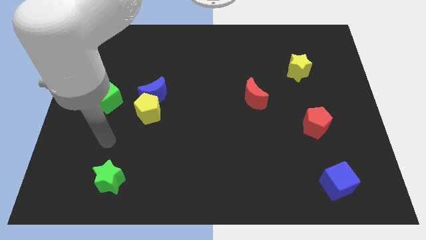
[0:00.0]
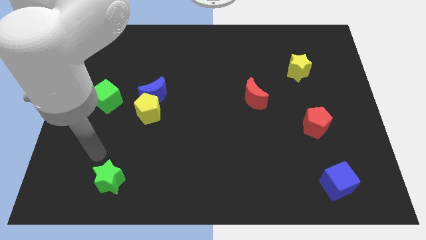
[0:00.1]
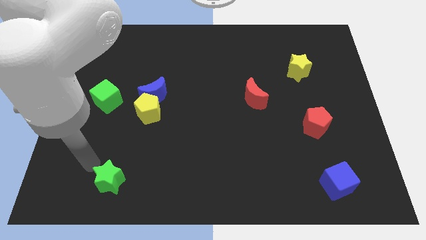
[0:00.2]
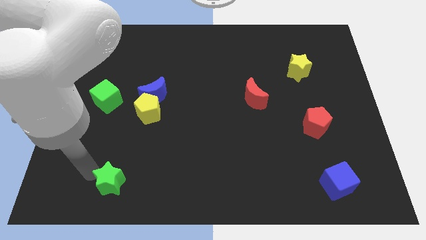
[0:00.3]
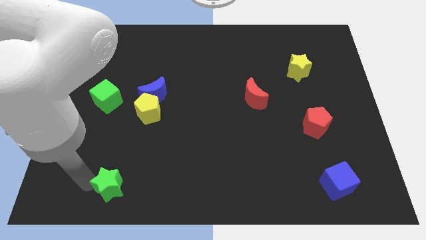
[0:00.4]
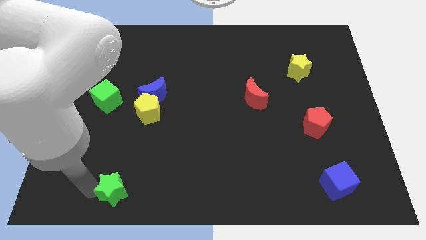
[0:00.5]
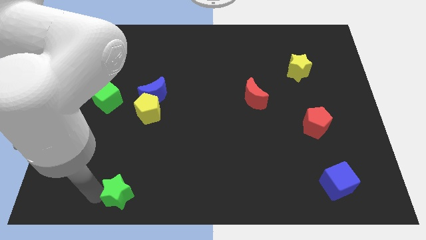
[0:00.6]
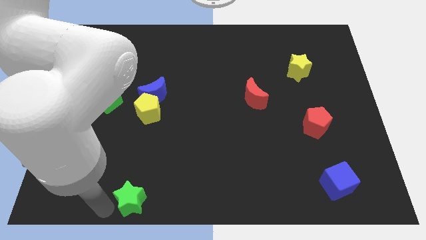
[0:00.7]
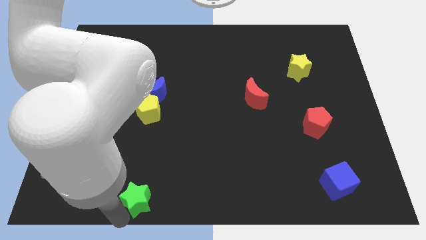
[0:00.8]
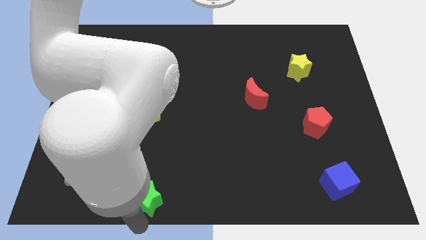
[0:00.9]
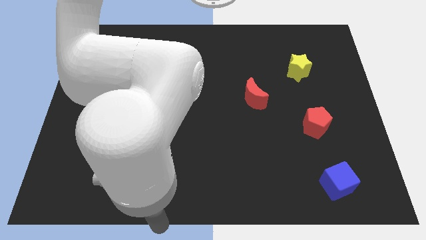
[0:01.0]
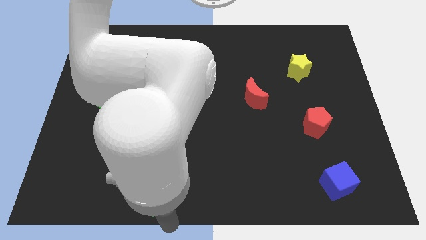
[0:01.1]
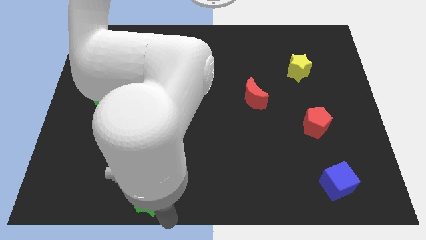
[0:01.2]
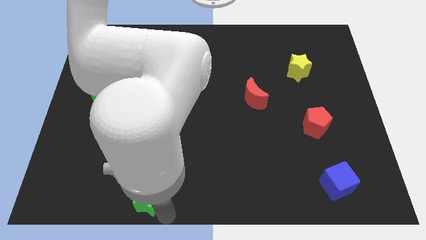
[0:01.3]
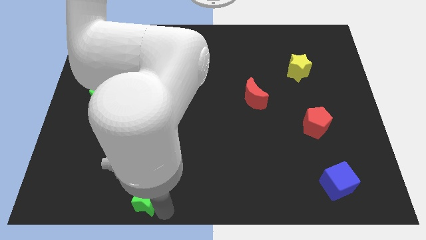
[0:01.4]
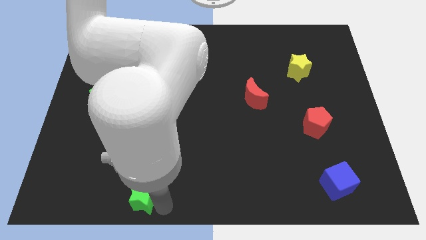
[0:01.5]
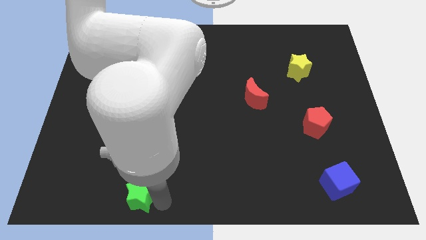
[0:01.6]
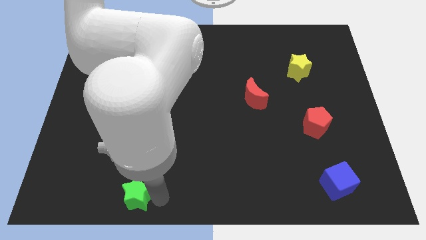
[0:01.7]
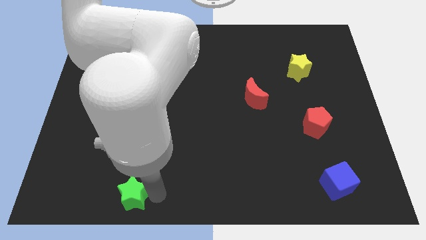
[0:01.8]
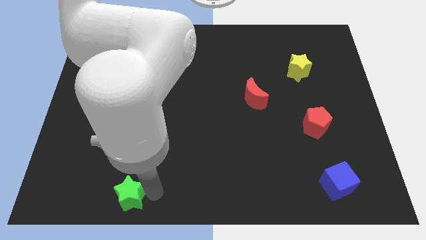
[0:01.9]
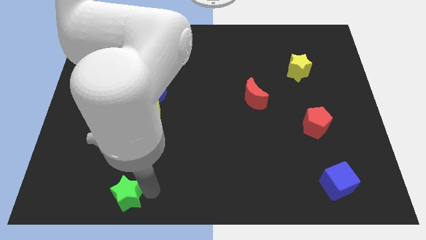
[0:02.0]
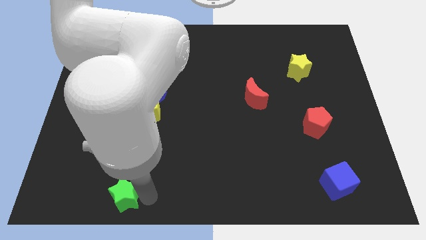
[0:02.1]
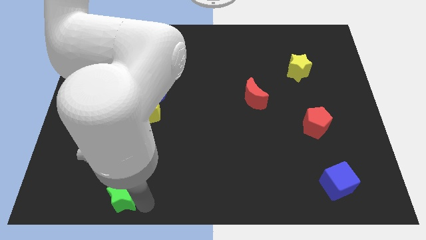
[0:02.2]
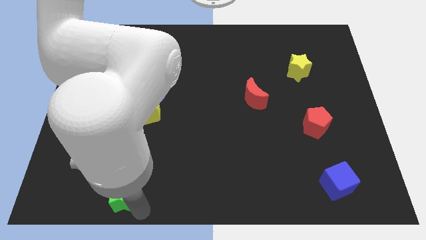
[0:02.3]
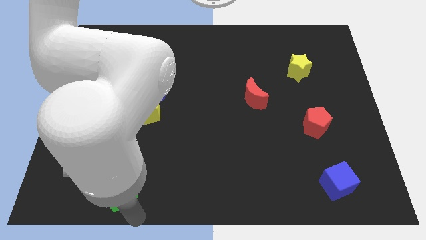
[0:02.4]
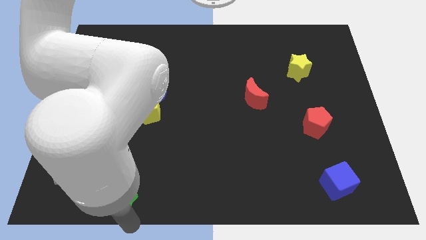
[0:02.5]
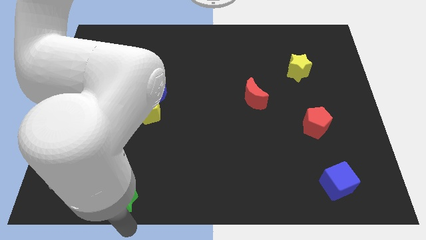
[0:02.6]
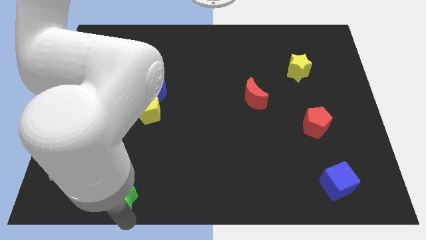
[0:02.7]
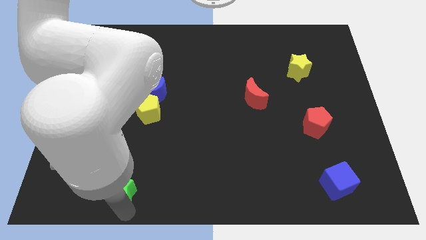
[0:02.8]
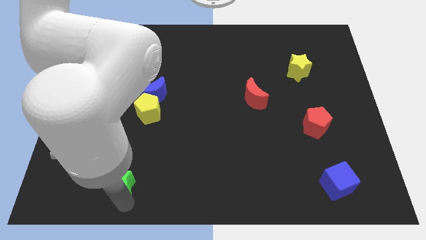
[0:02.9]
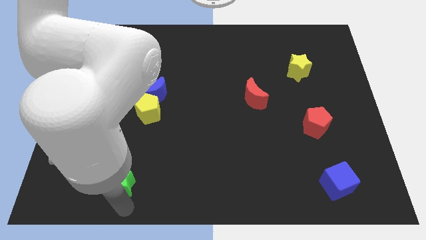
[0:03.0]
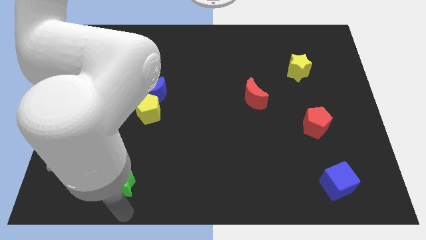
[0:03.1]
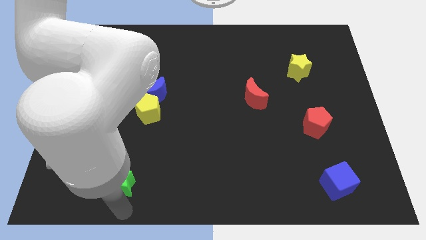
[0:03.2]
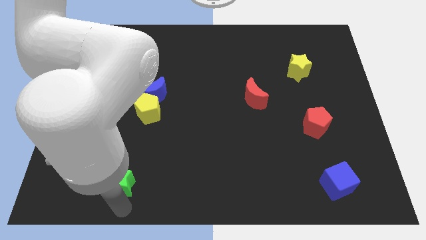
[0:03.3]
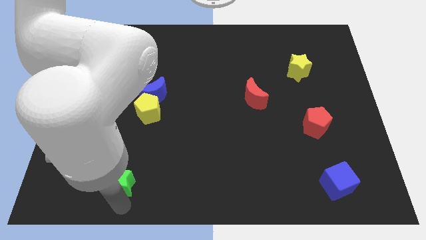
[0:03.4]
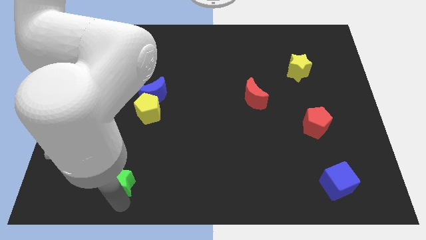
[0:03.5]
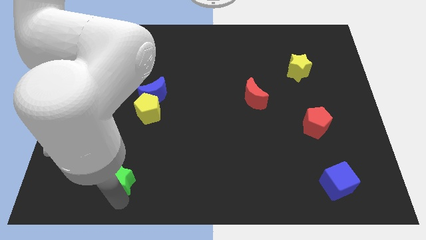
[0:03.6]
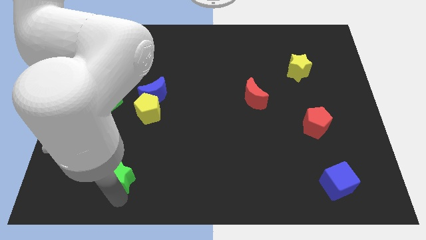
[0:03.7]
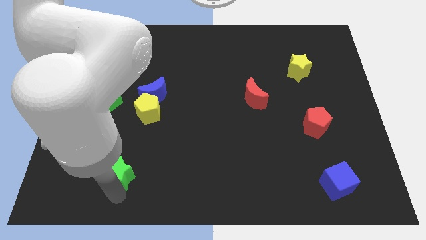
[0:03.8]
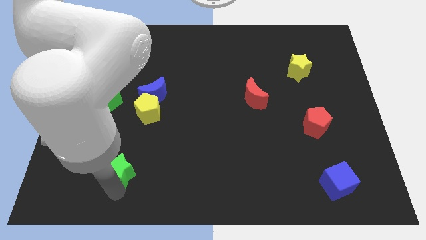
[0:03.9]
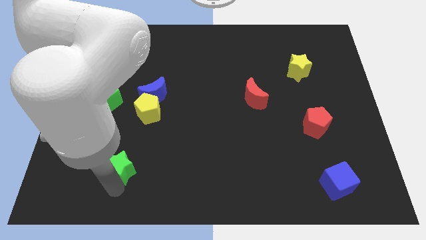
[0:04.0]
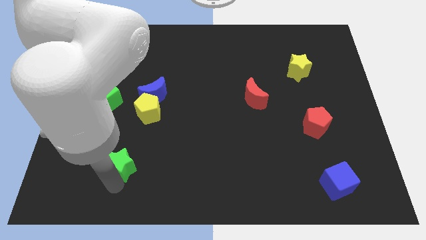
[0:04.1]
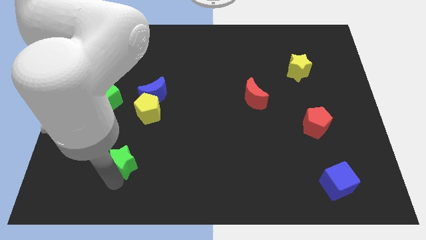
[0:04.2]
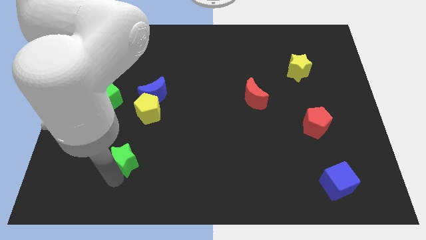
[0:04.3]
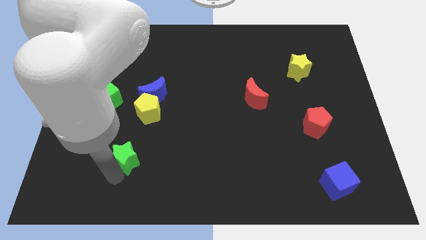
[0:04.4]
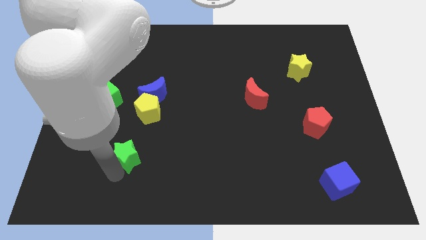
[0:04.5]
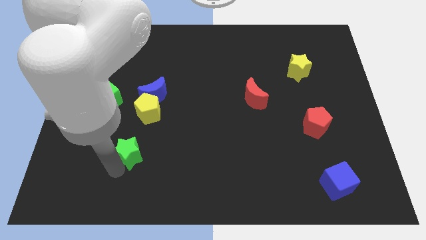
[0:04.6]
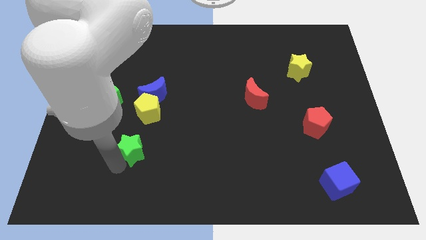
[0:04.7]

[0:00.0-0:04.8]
slightly push the green star up and then to the right

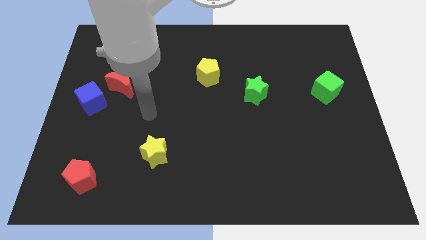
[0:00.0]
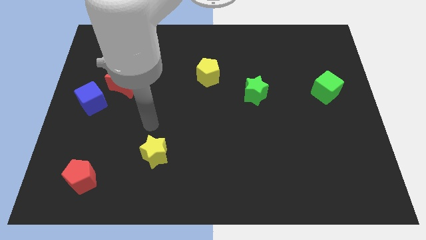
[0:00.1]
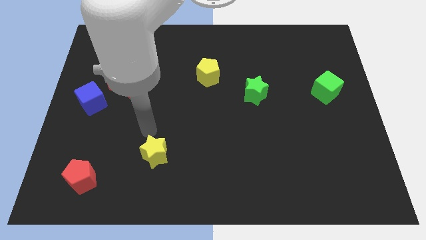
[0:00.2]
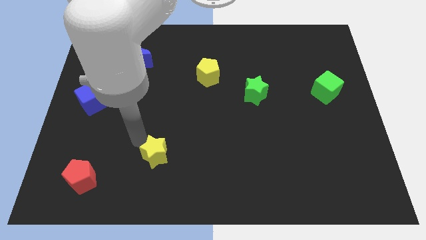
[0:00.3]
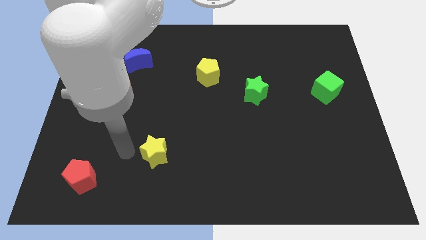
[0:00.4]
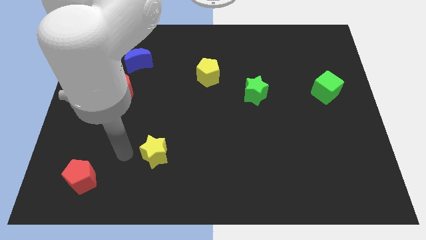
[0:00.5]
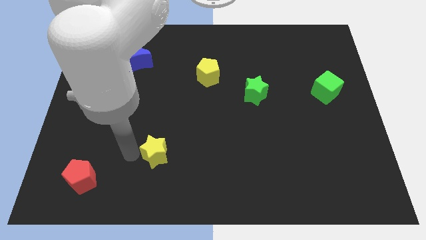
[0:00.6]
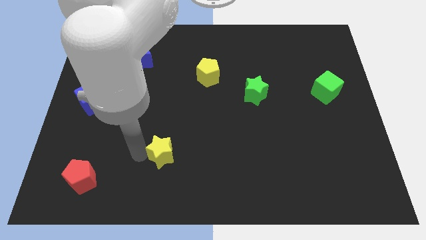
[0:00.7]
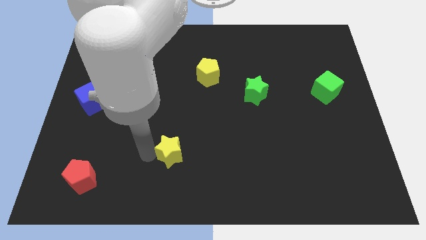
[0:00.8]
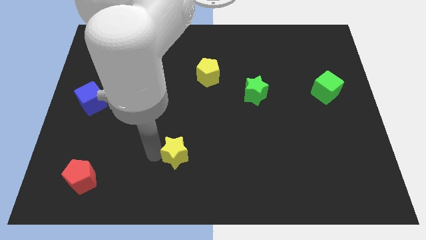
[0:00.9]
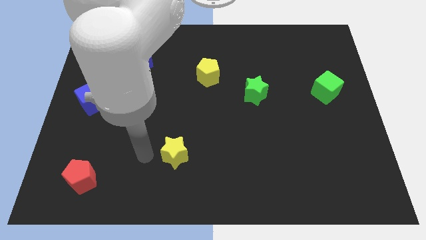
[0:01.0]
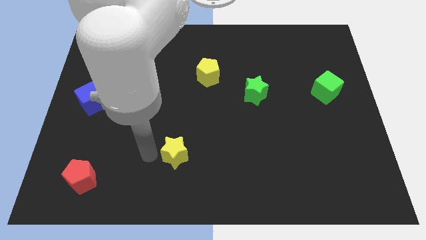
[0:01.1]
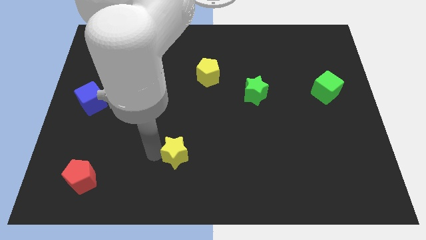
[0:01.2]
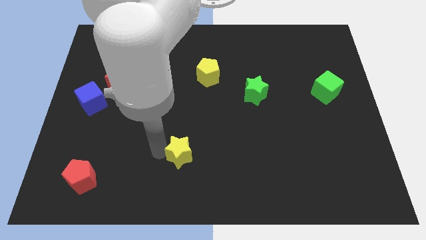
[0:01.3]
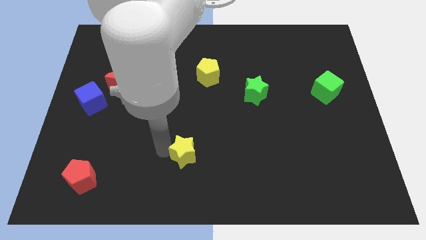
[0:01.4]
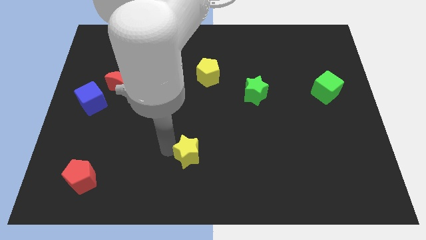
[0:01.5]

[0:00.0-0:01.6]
move the yellow star a little right

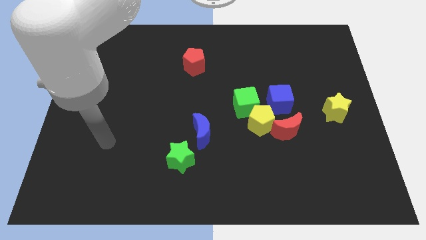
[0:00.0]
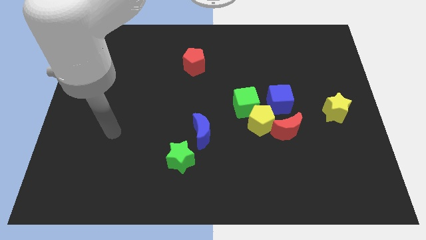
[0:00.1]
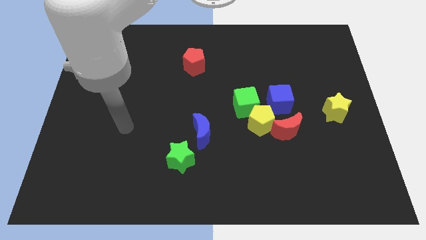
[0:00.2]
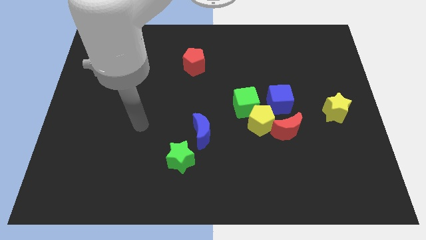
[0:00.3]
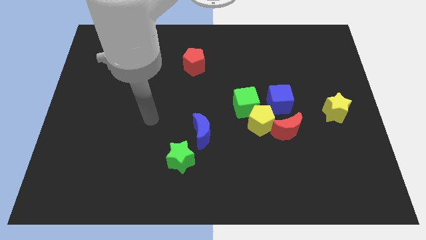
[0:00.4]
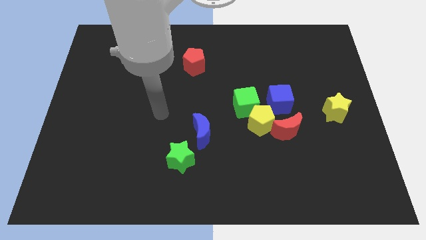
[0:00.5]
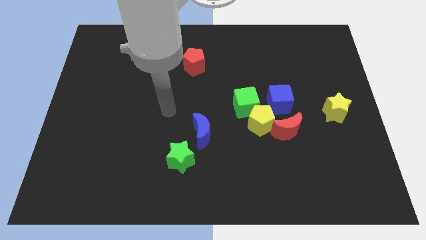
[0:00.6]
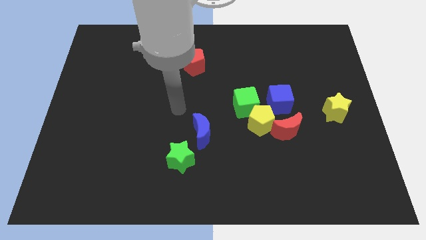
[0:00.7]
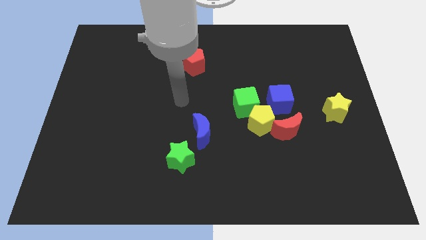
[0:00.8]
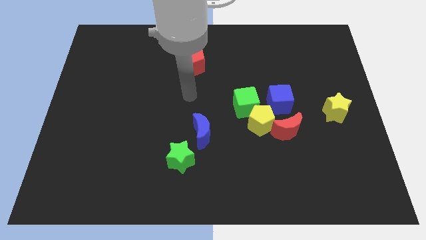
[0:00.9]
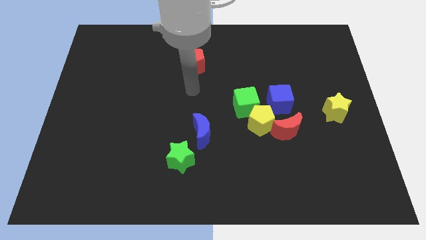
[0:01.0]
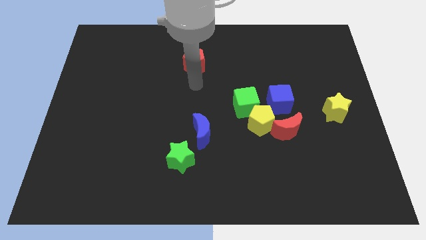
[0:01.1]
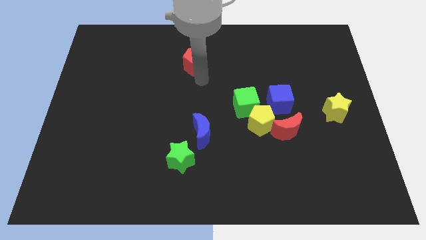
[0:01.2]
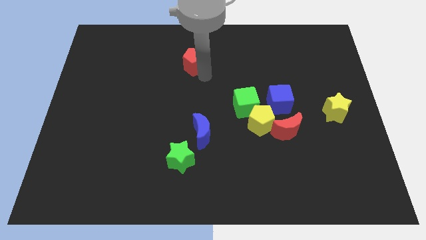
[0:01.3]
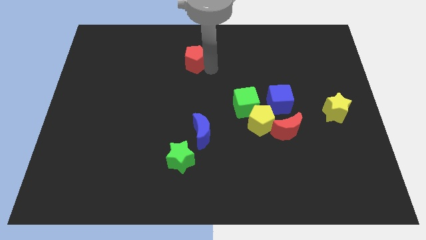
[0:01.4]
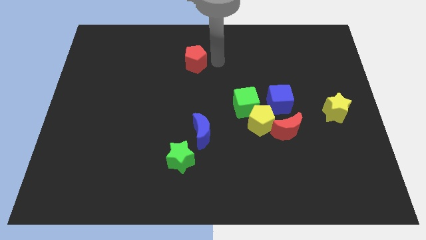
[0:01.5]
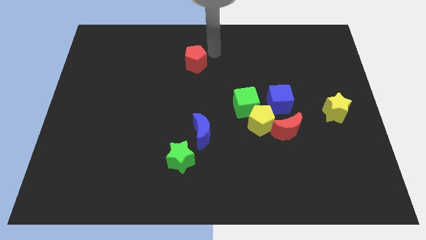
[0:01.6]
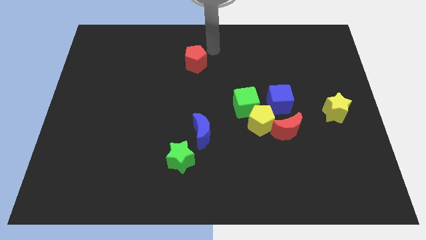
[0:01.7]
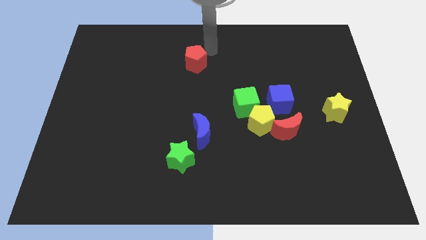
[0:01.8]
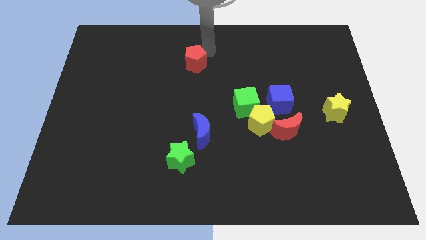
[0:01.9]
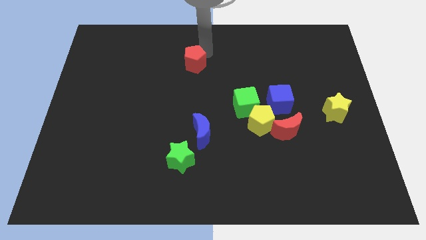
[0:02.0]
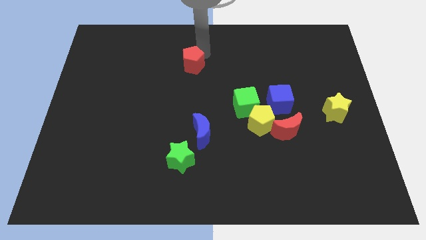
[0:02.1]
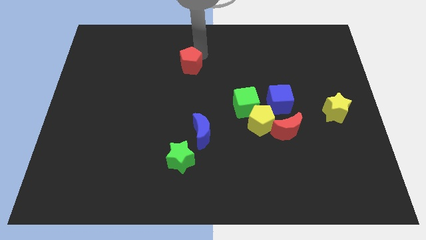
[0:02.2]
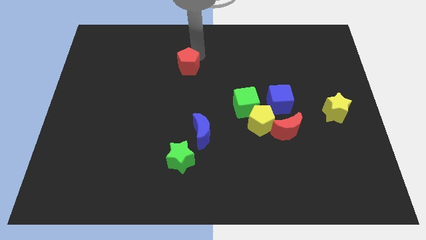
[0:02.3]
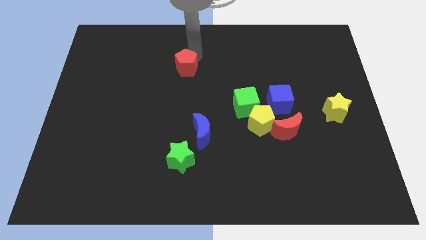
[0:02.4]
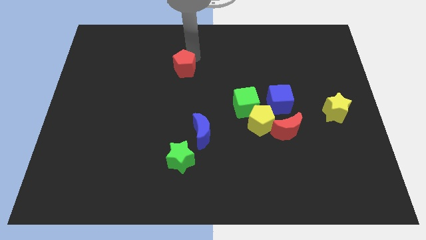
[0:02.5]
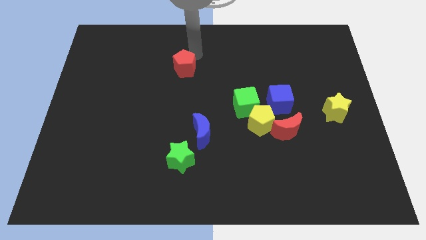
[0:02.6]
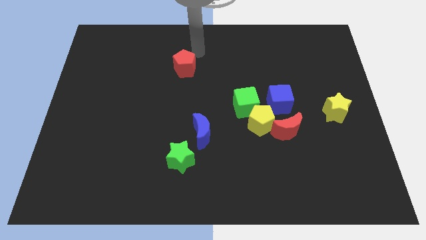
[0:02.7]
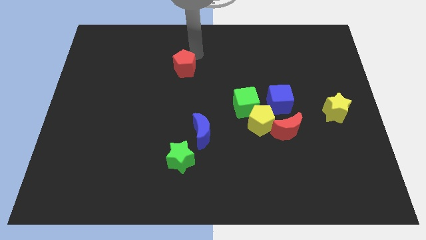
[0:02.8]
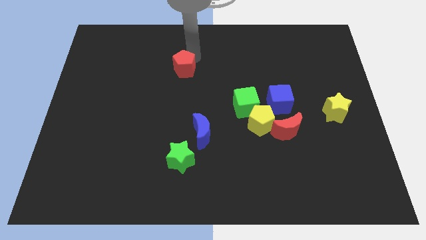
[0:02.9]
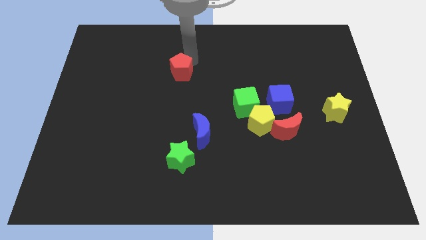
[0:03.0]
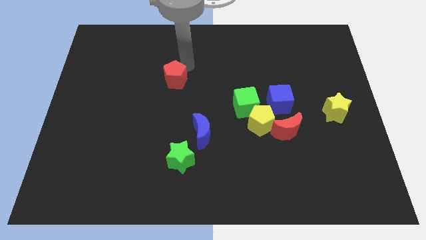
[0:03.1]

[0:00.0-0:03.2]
slide the red pentagon a little bit diagonally downwards and left
